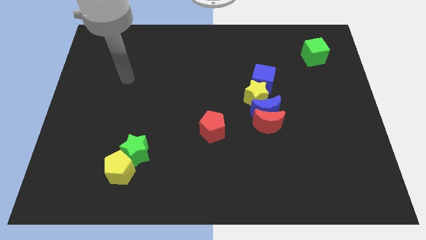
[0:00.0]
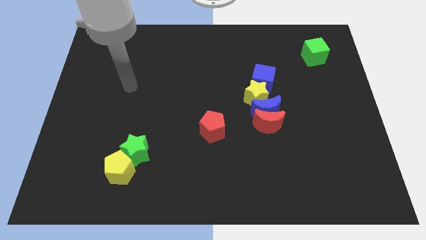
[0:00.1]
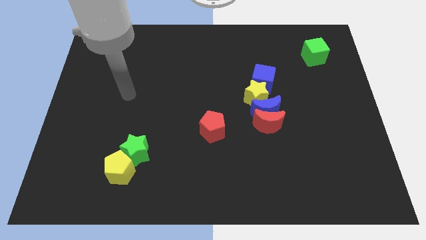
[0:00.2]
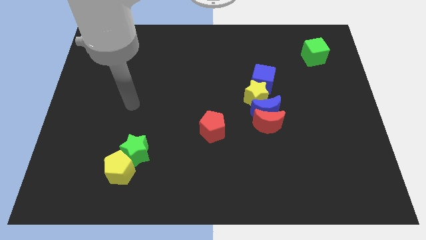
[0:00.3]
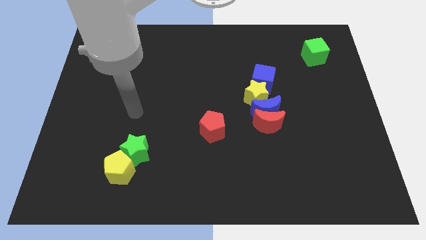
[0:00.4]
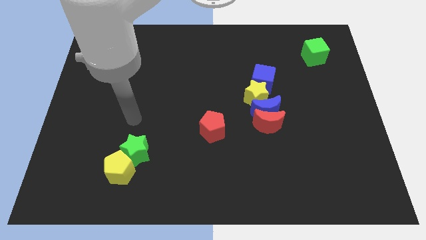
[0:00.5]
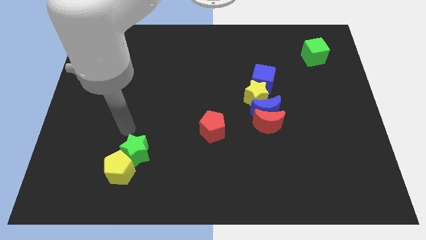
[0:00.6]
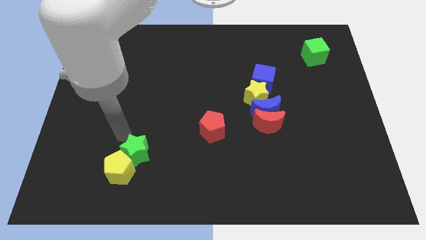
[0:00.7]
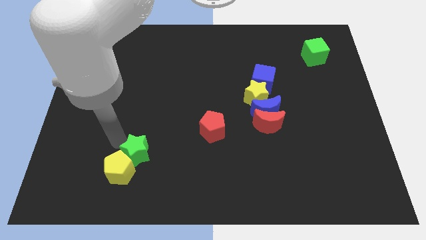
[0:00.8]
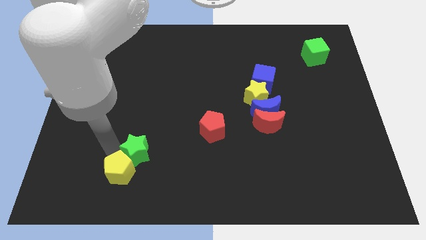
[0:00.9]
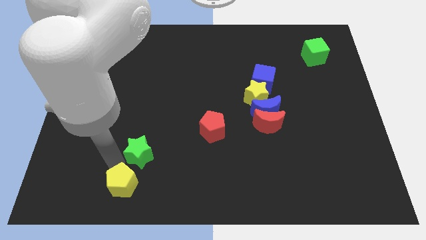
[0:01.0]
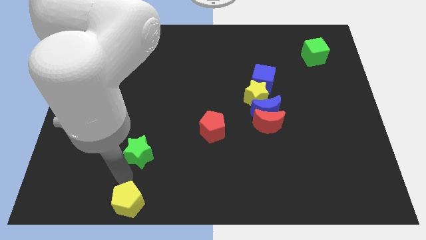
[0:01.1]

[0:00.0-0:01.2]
pull the green star apart from the yellow pentagon

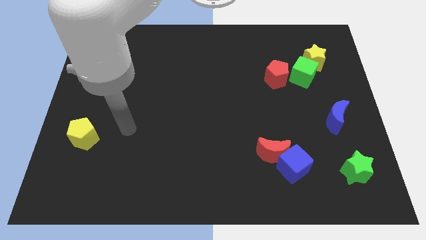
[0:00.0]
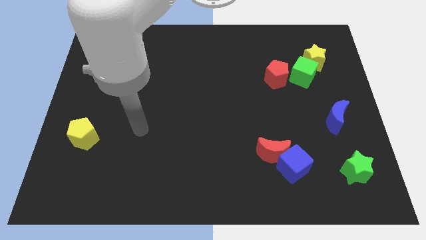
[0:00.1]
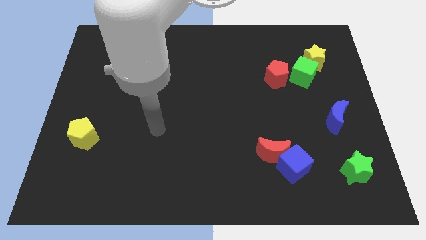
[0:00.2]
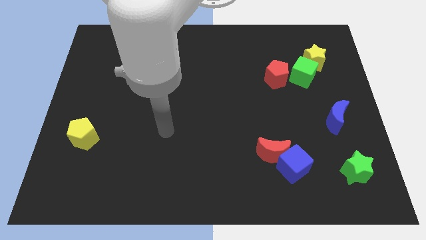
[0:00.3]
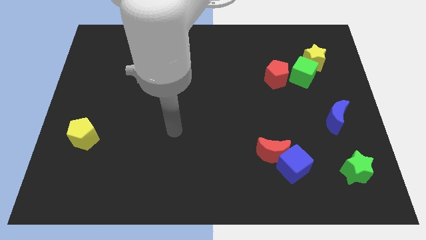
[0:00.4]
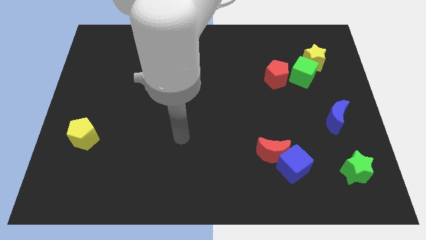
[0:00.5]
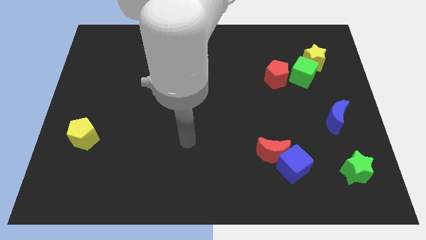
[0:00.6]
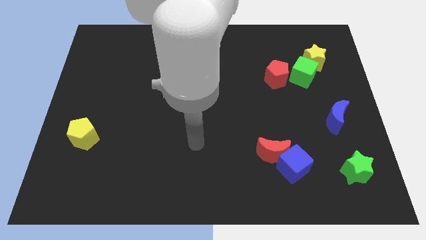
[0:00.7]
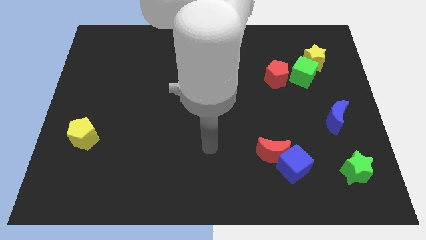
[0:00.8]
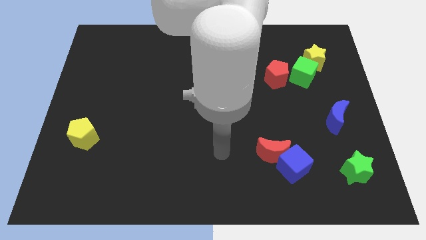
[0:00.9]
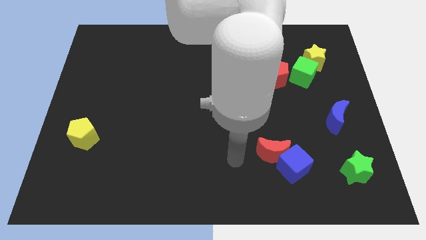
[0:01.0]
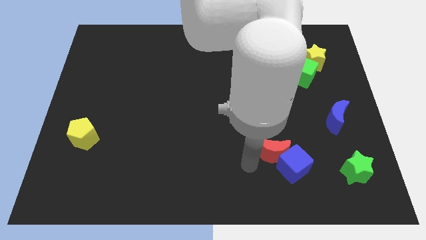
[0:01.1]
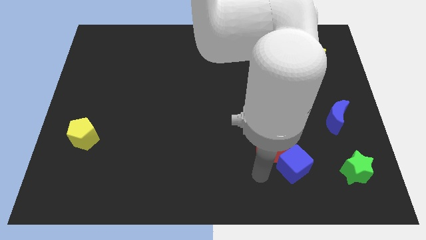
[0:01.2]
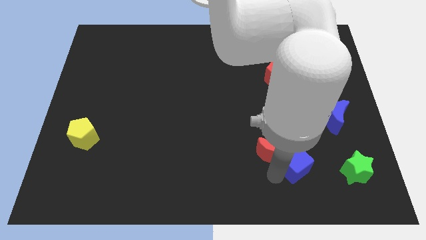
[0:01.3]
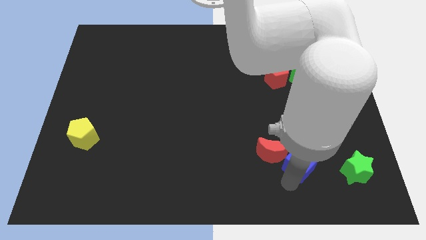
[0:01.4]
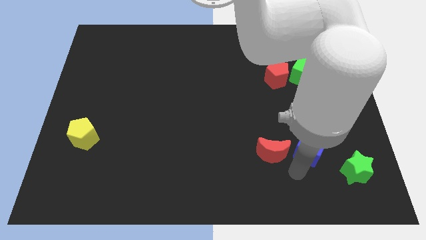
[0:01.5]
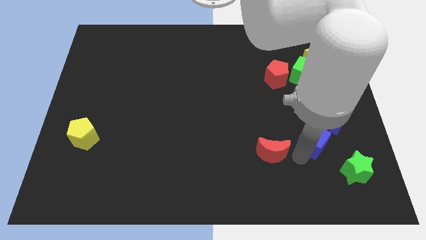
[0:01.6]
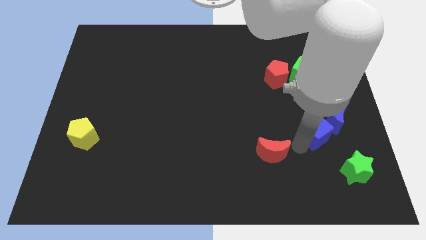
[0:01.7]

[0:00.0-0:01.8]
move the red moon away from the blue cube

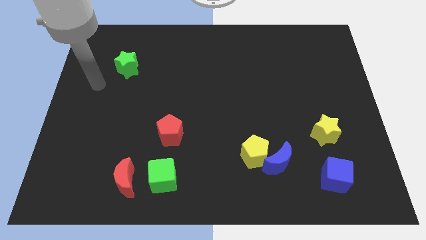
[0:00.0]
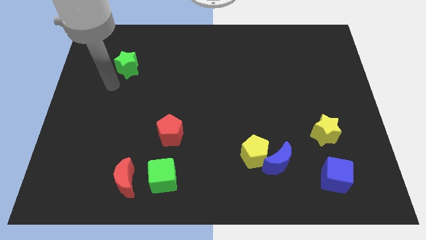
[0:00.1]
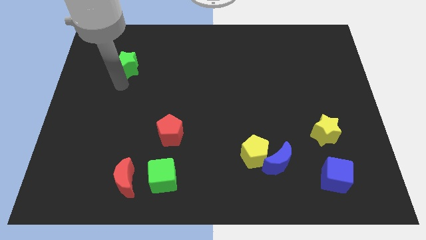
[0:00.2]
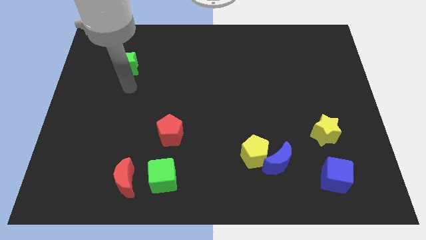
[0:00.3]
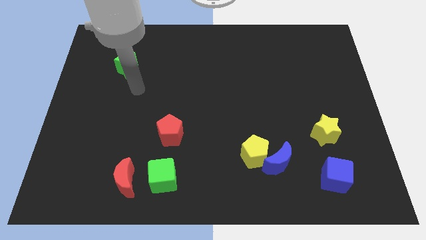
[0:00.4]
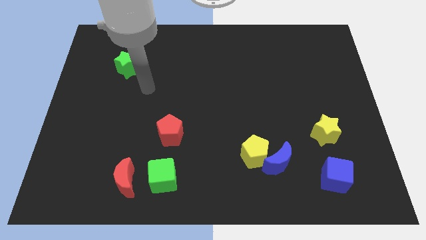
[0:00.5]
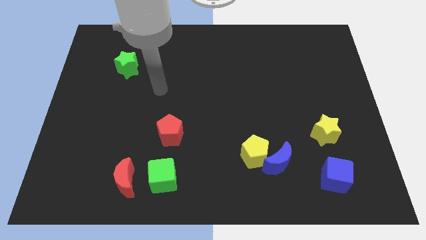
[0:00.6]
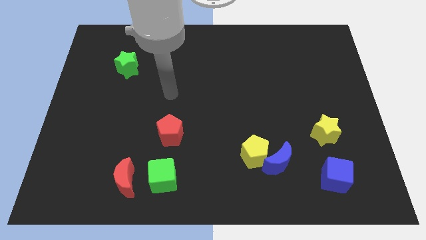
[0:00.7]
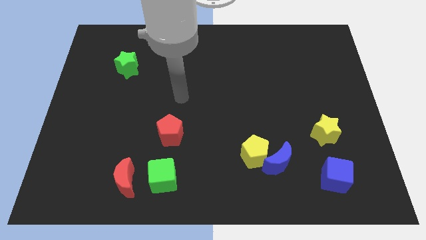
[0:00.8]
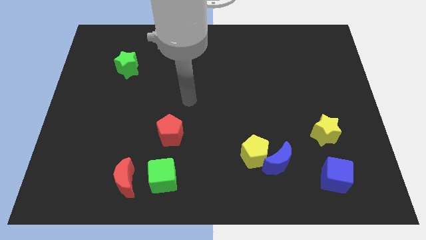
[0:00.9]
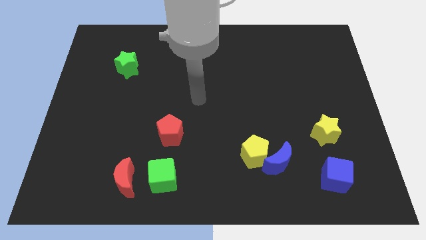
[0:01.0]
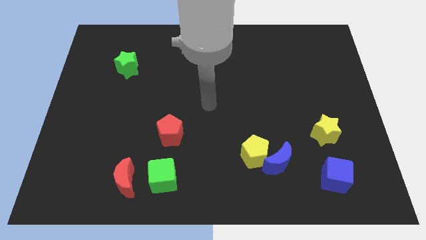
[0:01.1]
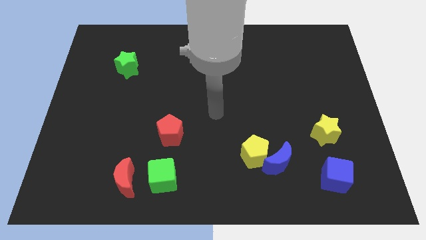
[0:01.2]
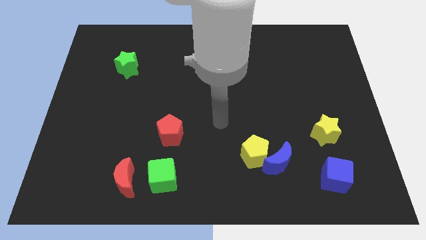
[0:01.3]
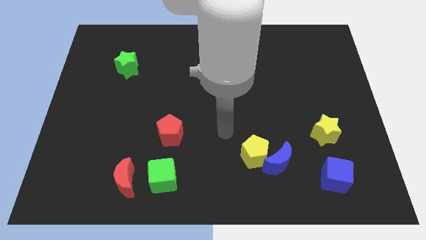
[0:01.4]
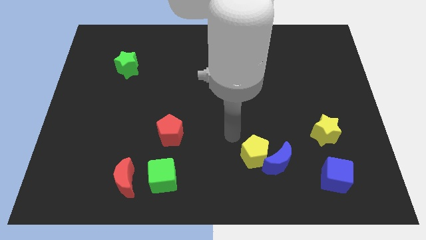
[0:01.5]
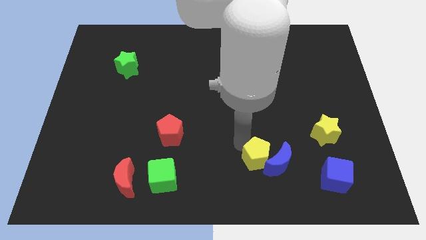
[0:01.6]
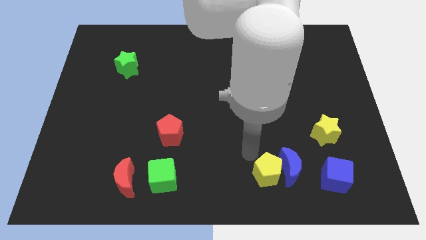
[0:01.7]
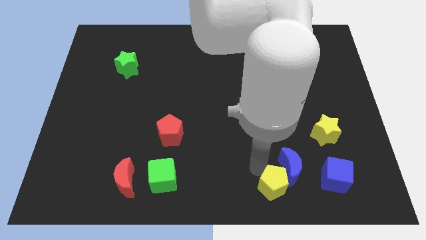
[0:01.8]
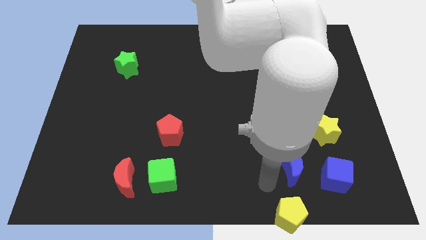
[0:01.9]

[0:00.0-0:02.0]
pull the blue moon apart from the yellow pentagon

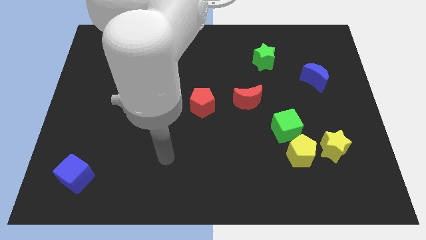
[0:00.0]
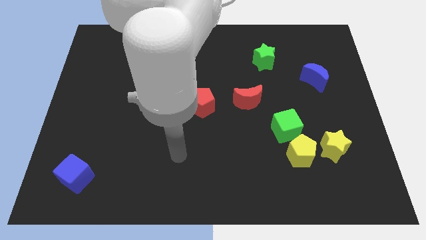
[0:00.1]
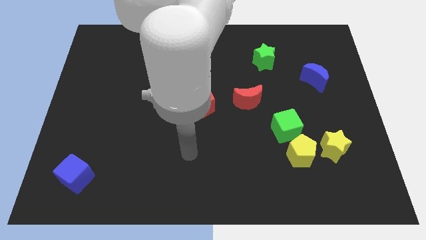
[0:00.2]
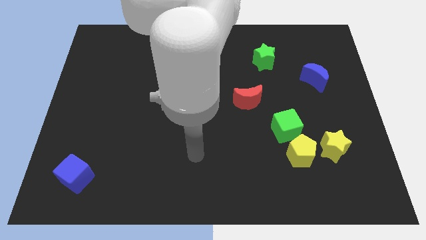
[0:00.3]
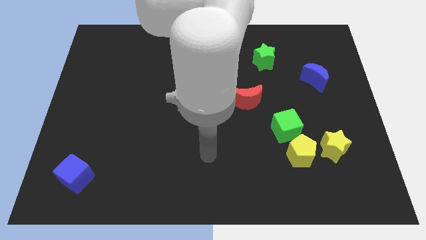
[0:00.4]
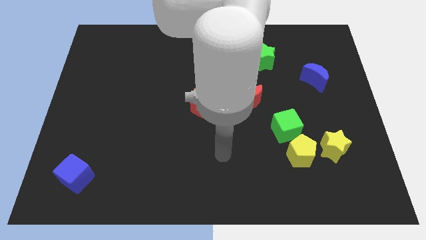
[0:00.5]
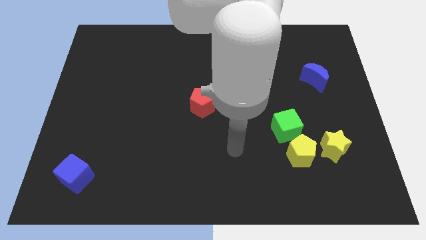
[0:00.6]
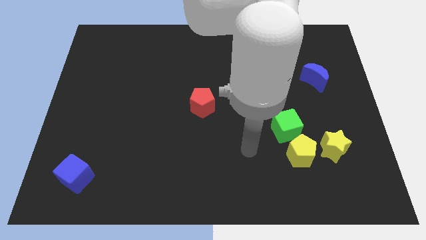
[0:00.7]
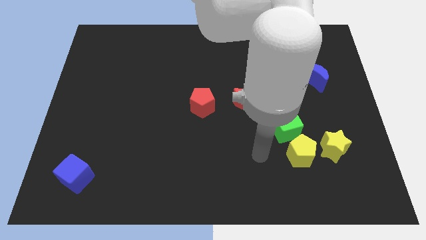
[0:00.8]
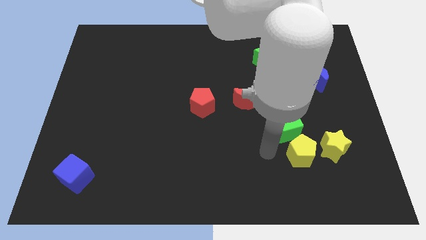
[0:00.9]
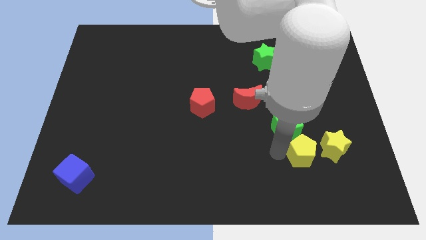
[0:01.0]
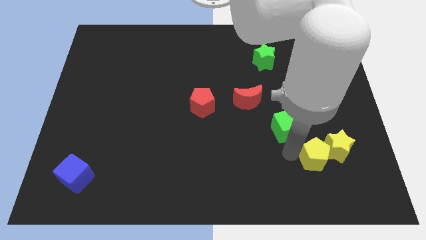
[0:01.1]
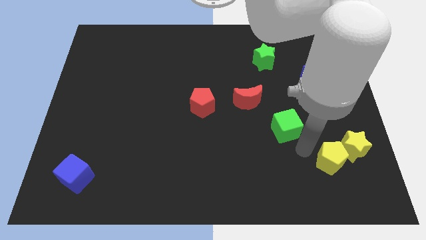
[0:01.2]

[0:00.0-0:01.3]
separate the green cube from the yellow pentagon

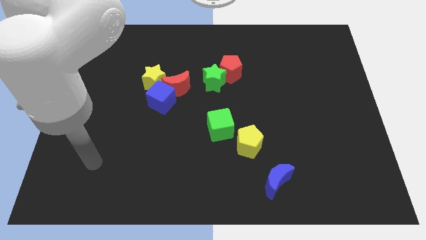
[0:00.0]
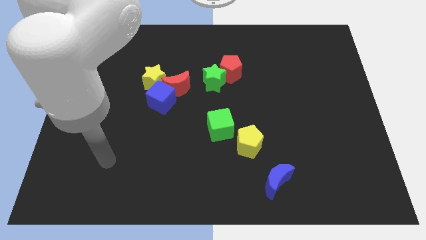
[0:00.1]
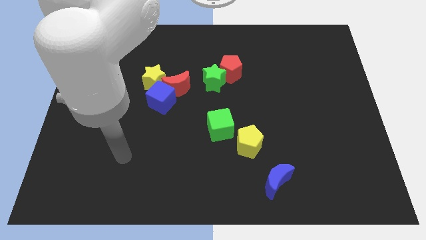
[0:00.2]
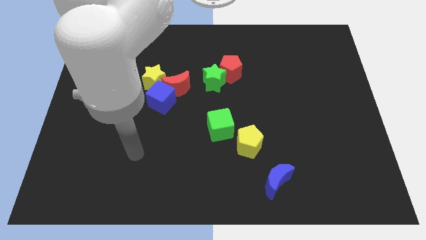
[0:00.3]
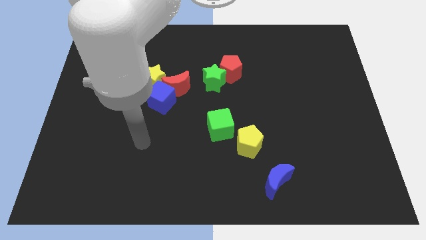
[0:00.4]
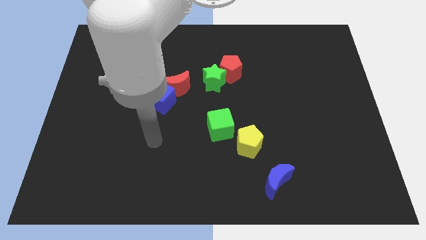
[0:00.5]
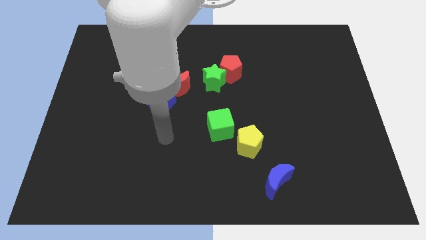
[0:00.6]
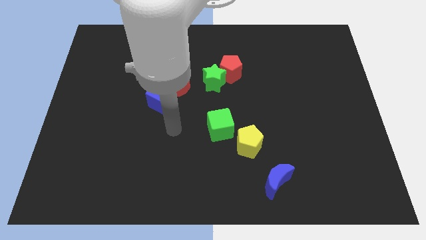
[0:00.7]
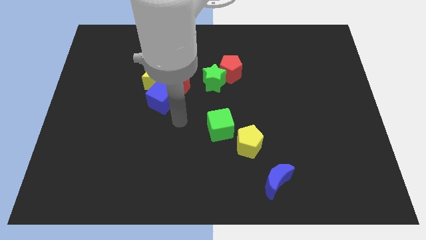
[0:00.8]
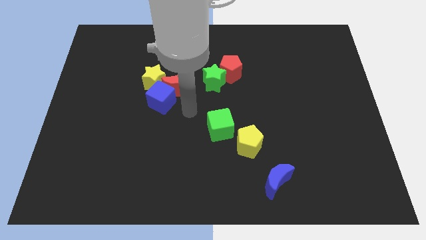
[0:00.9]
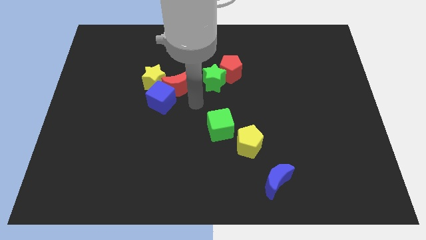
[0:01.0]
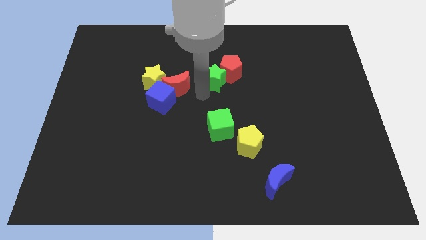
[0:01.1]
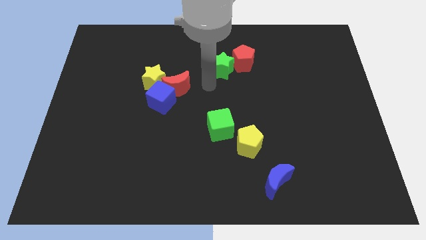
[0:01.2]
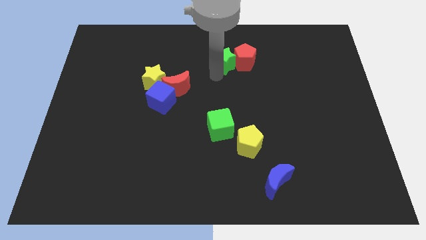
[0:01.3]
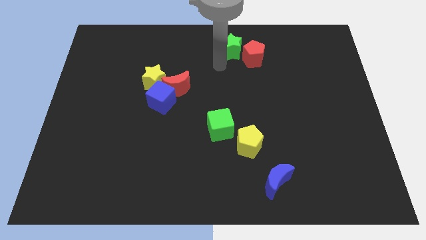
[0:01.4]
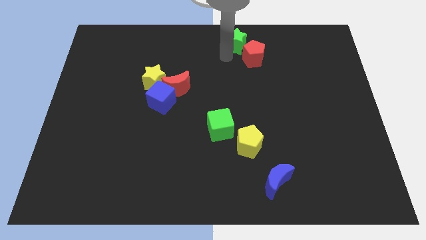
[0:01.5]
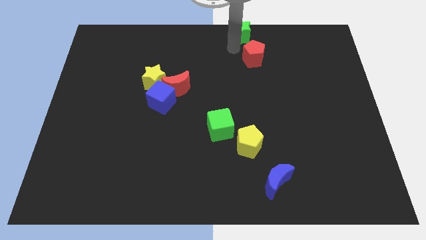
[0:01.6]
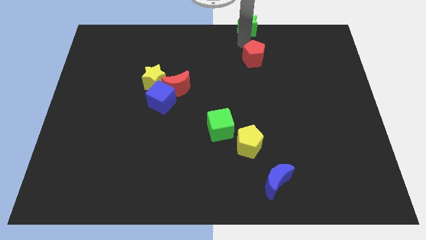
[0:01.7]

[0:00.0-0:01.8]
pull the red pentagon apart from the green star

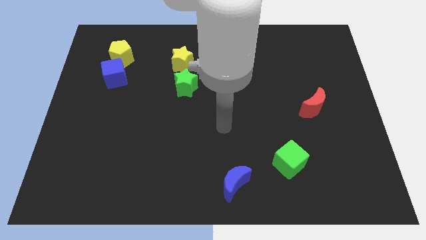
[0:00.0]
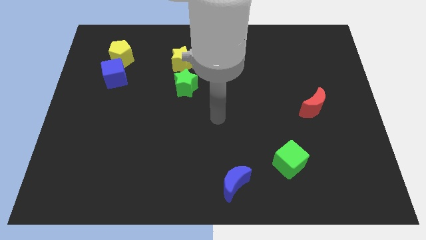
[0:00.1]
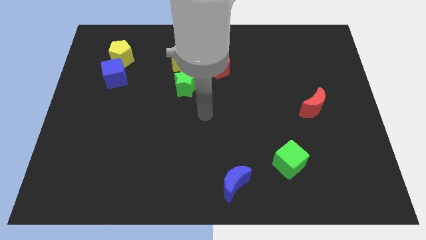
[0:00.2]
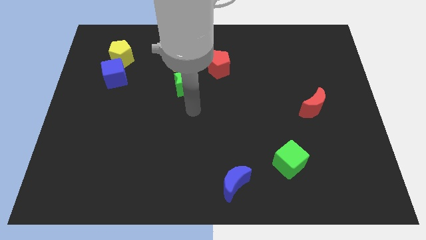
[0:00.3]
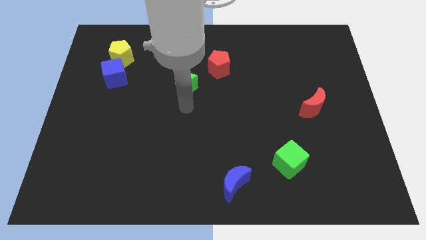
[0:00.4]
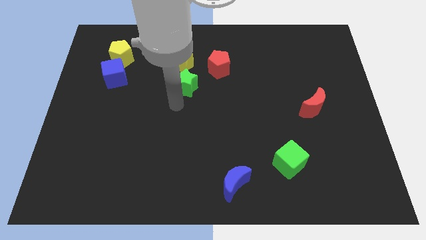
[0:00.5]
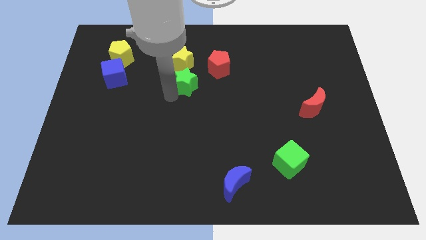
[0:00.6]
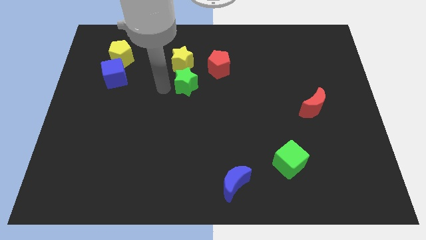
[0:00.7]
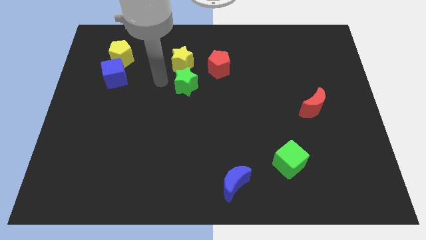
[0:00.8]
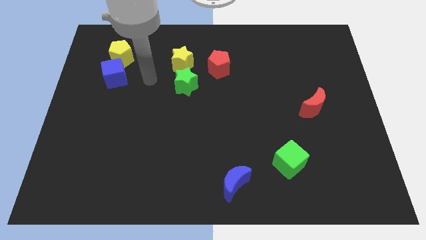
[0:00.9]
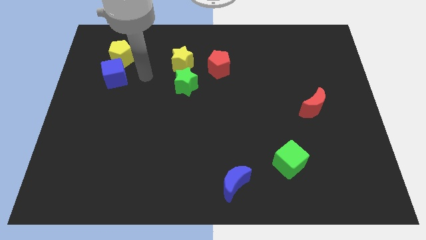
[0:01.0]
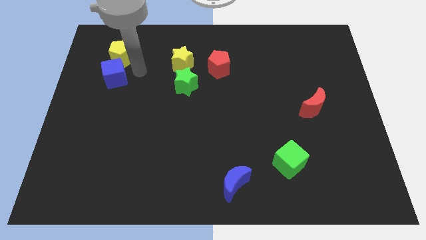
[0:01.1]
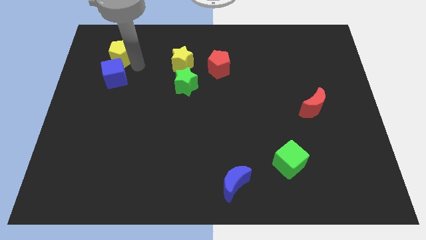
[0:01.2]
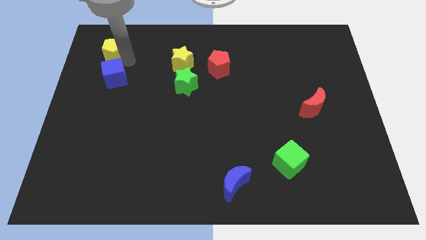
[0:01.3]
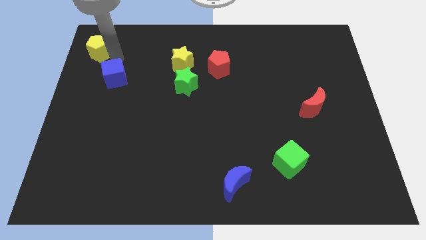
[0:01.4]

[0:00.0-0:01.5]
separate the blue cube from the yellow pentagon
